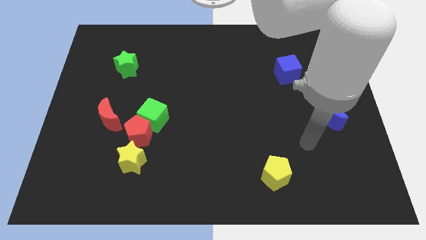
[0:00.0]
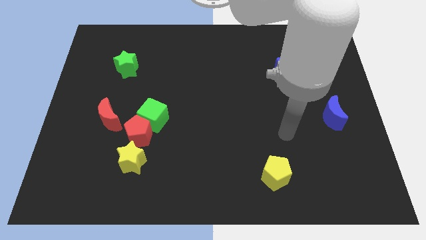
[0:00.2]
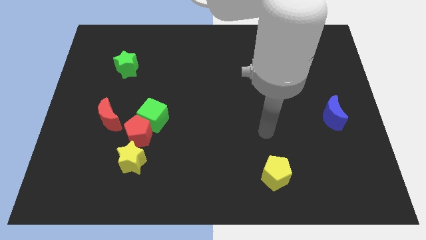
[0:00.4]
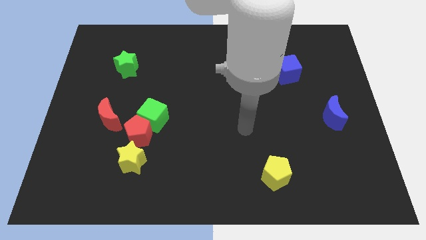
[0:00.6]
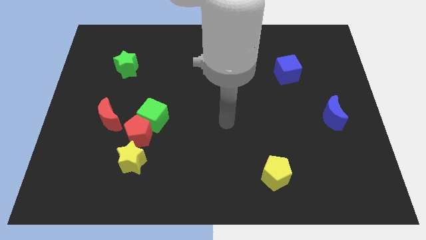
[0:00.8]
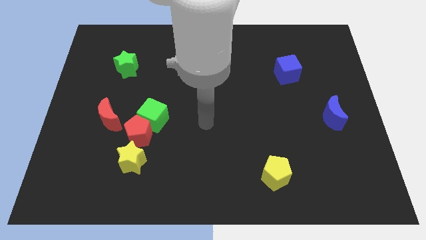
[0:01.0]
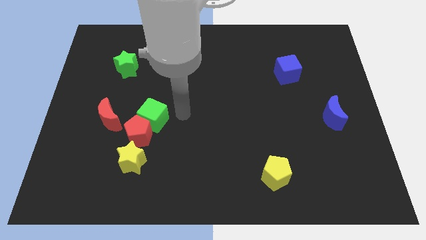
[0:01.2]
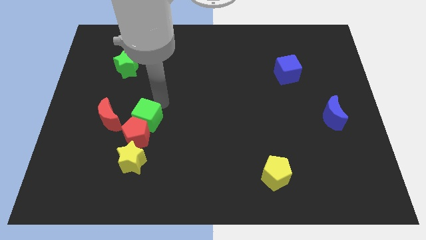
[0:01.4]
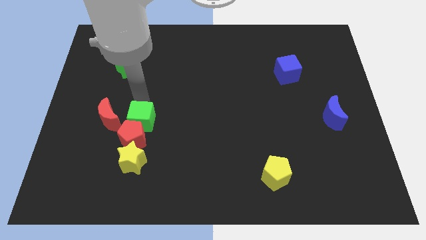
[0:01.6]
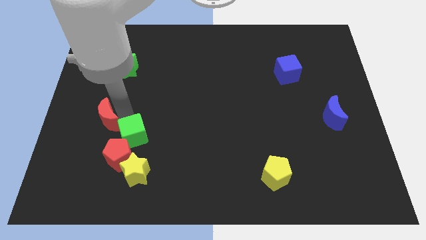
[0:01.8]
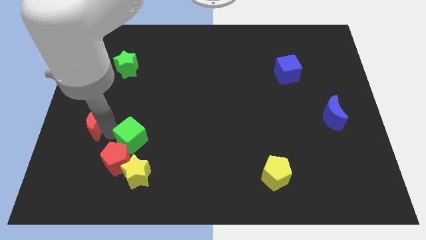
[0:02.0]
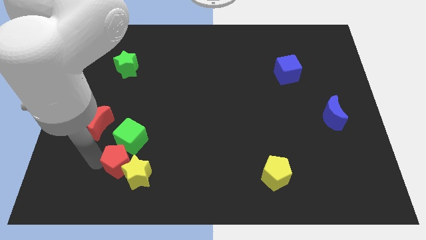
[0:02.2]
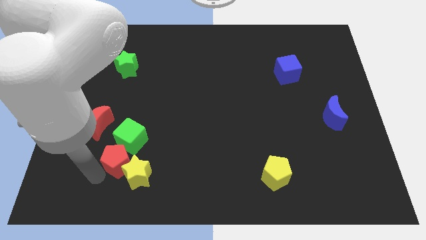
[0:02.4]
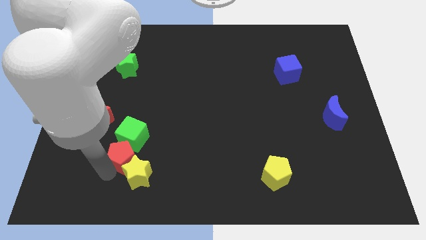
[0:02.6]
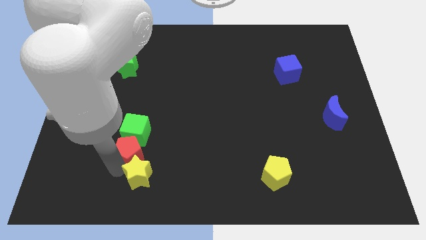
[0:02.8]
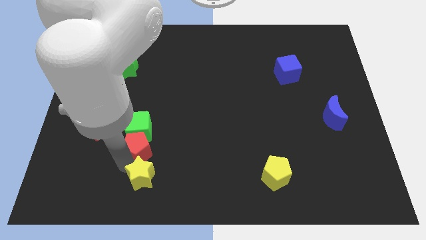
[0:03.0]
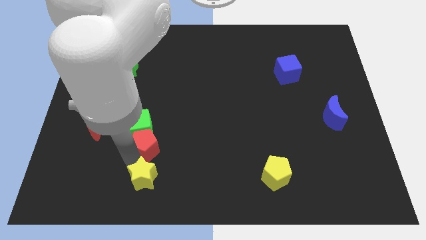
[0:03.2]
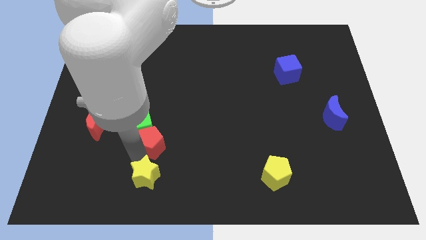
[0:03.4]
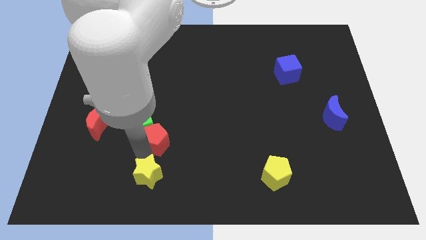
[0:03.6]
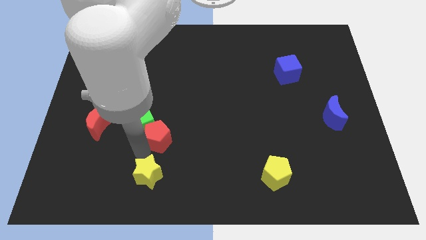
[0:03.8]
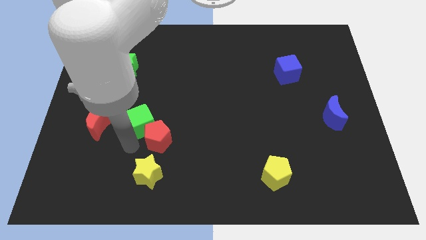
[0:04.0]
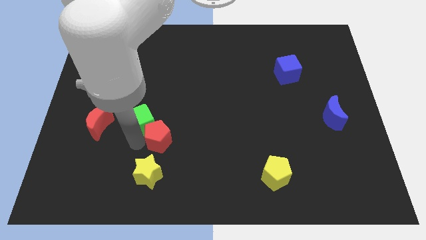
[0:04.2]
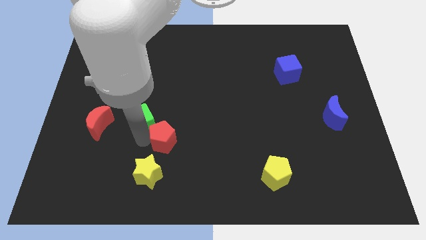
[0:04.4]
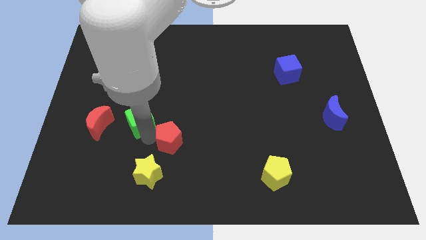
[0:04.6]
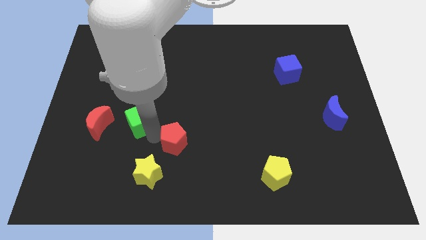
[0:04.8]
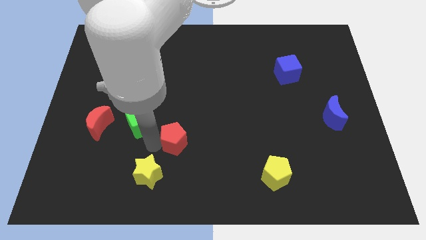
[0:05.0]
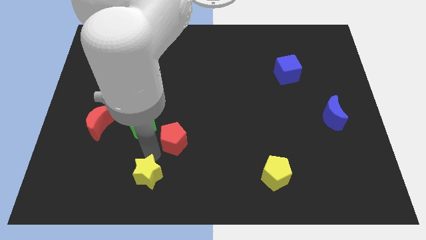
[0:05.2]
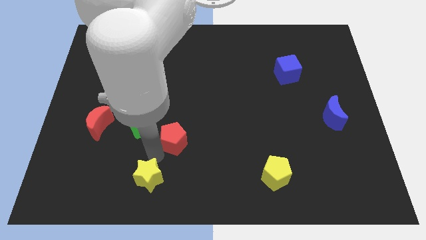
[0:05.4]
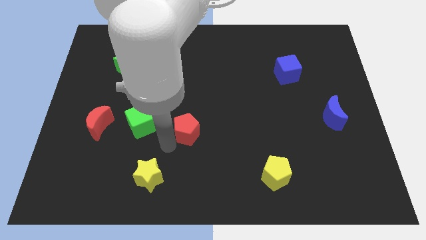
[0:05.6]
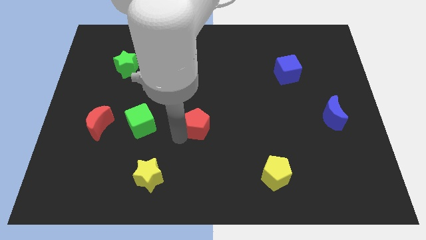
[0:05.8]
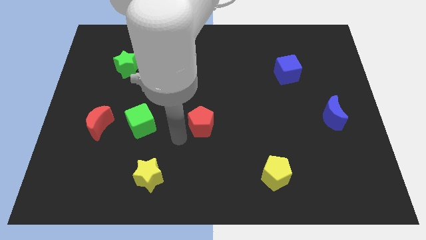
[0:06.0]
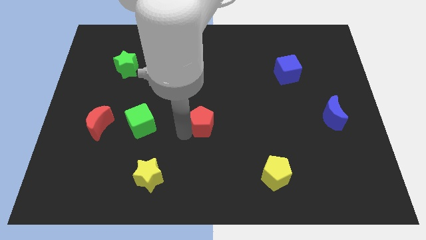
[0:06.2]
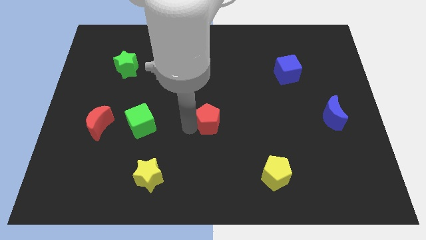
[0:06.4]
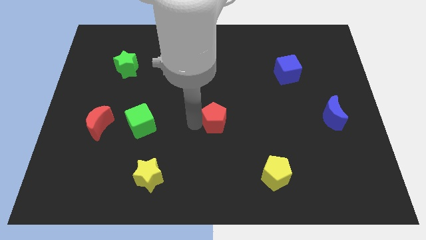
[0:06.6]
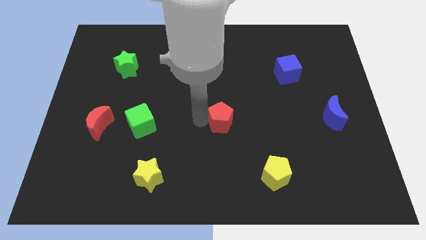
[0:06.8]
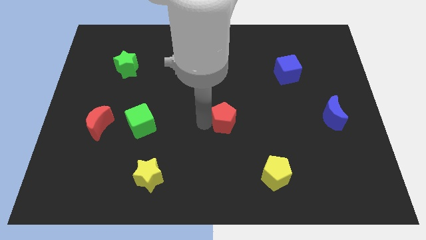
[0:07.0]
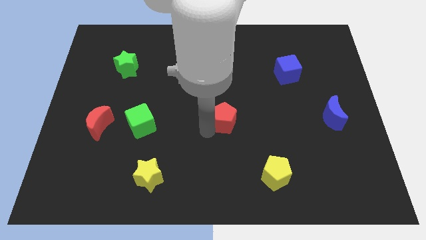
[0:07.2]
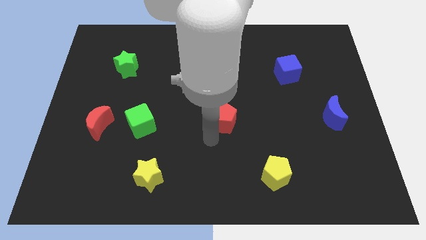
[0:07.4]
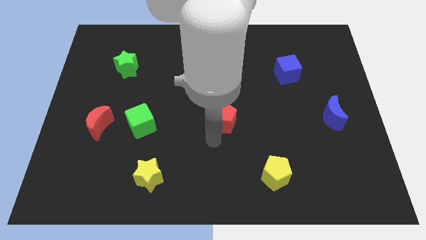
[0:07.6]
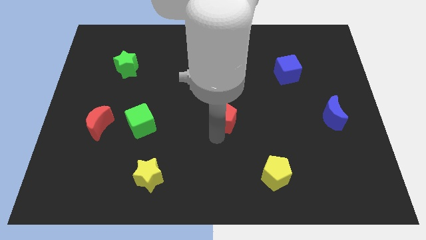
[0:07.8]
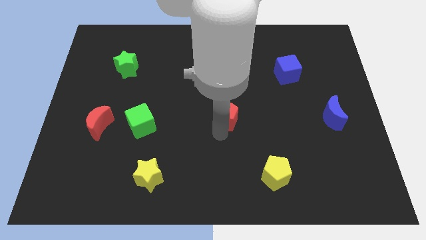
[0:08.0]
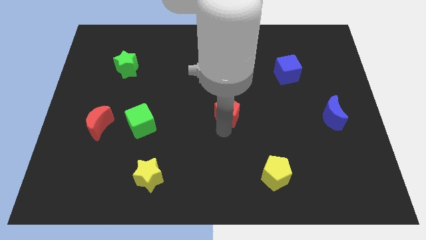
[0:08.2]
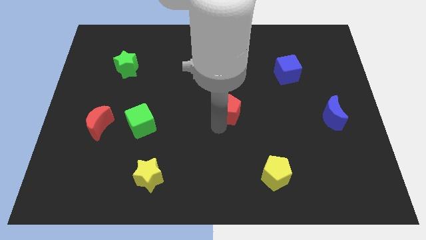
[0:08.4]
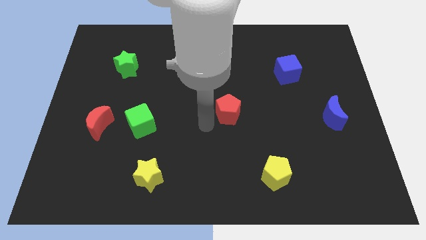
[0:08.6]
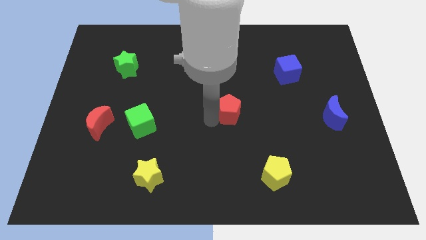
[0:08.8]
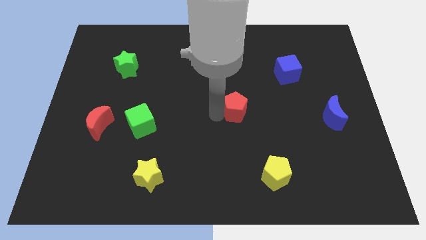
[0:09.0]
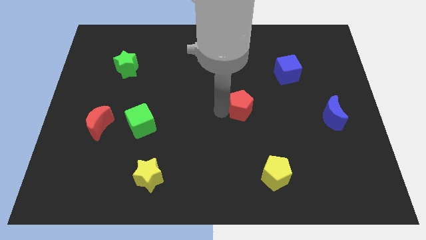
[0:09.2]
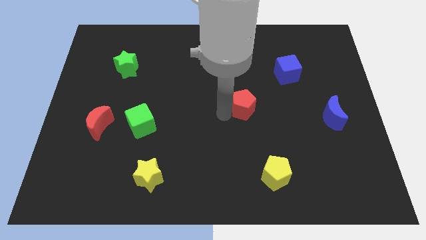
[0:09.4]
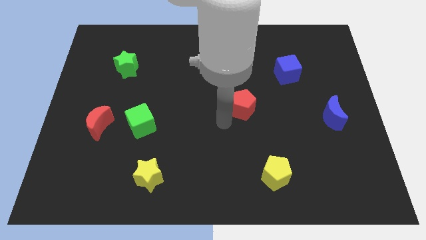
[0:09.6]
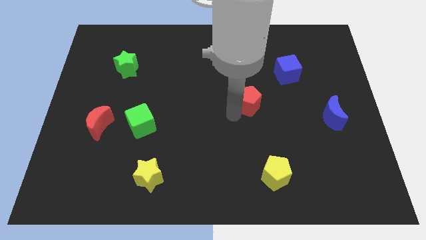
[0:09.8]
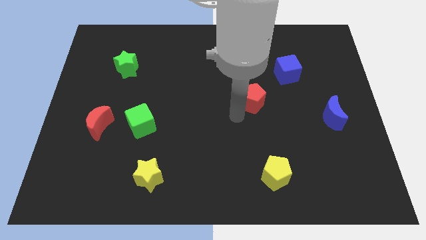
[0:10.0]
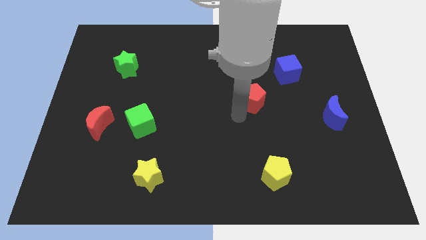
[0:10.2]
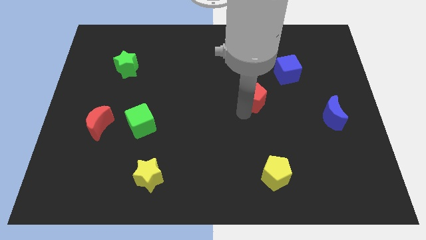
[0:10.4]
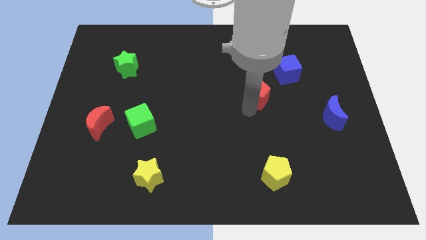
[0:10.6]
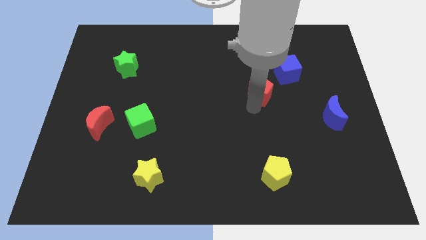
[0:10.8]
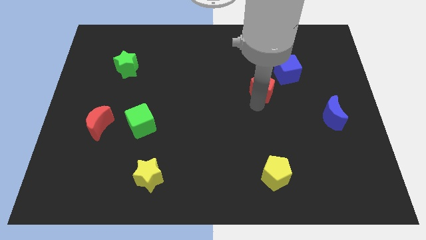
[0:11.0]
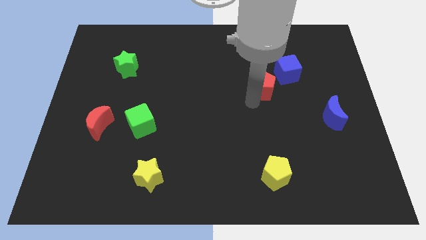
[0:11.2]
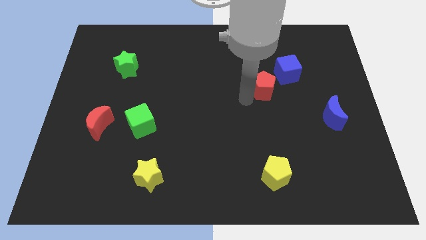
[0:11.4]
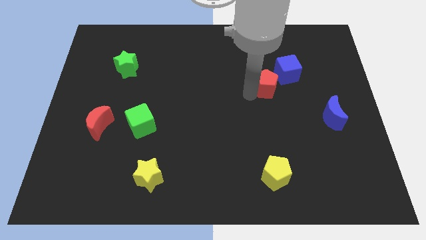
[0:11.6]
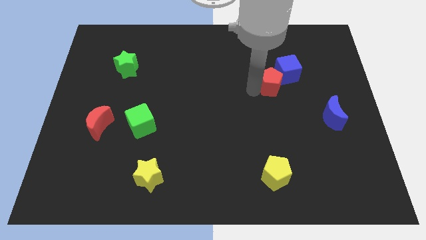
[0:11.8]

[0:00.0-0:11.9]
move the red pentagon to the blue cube

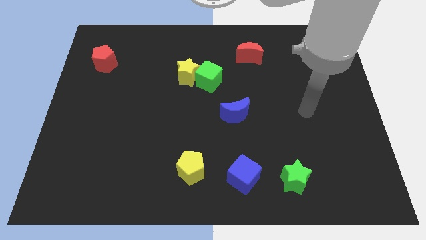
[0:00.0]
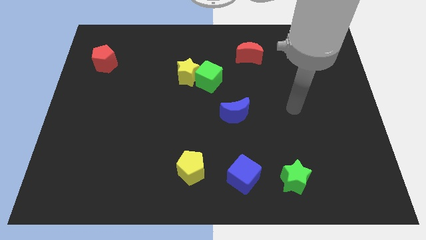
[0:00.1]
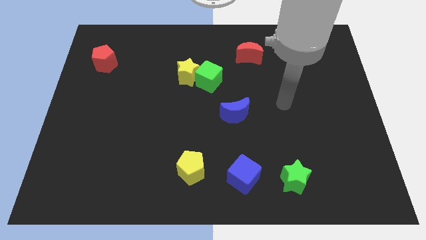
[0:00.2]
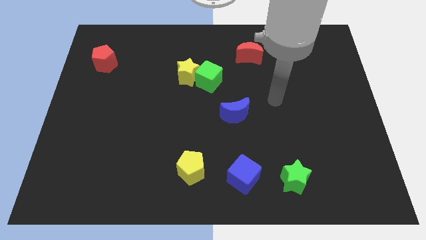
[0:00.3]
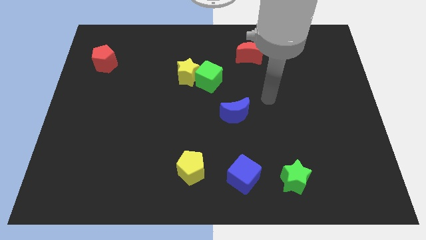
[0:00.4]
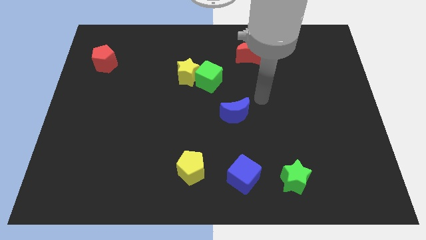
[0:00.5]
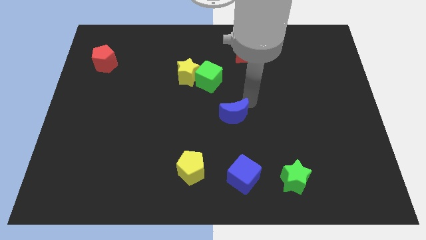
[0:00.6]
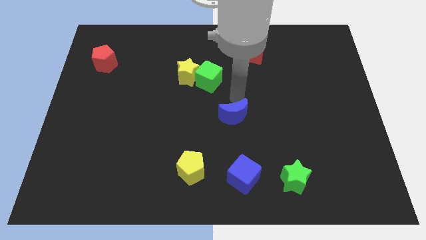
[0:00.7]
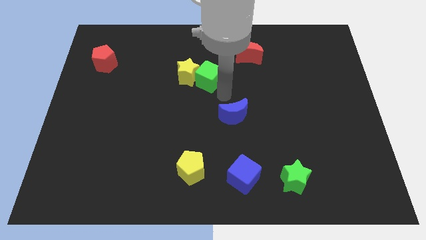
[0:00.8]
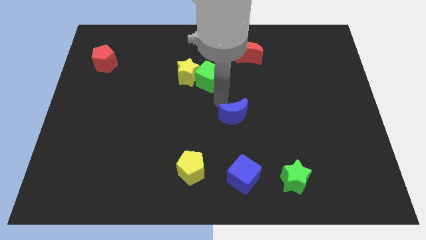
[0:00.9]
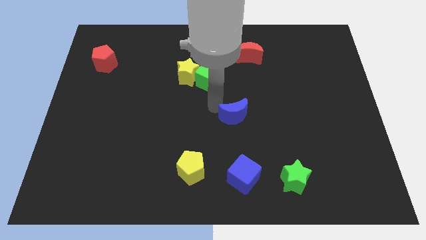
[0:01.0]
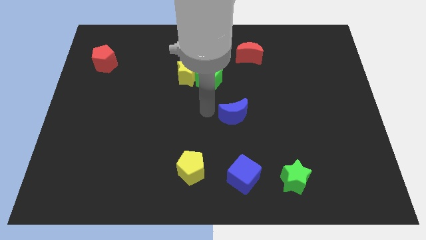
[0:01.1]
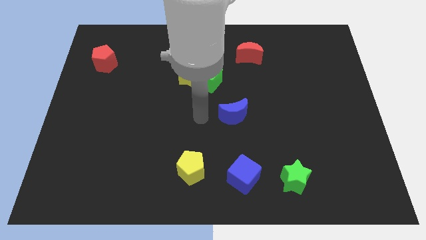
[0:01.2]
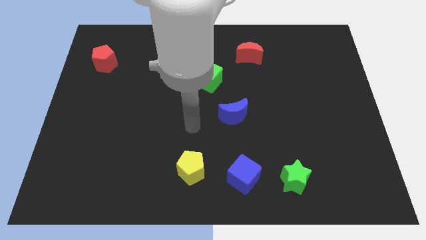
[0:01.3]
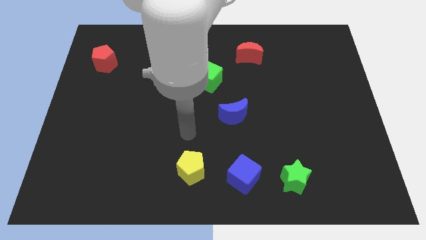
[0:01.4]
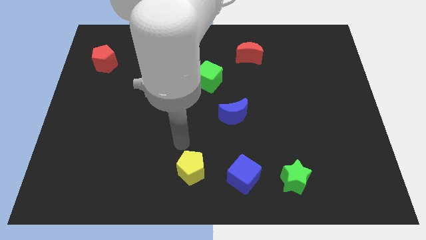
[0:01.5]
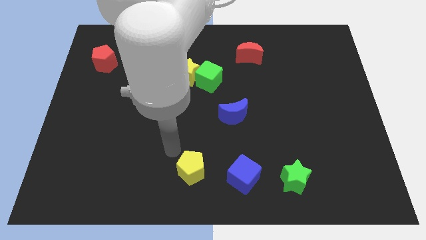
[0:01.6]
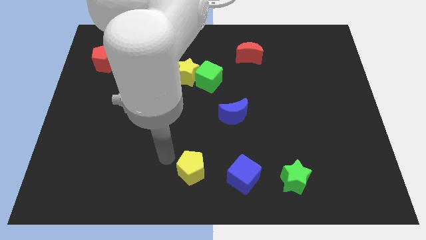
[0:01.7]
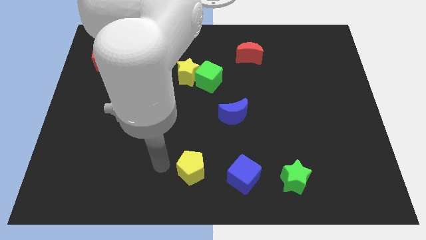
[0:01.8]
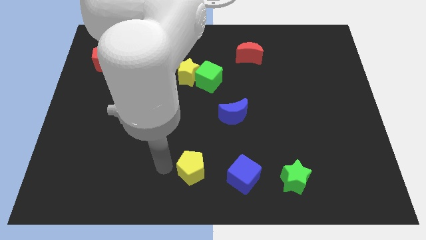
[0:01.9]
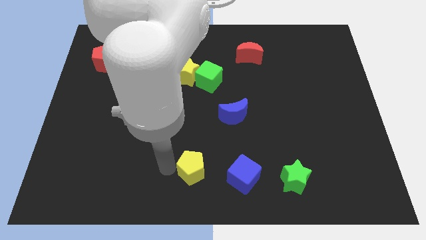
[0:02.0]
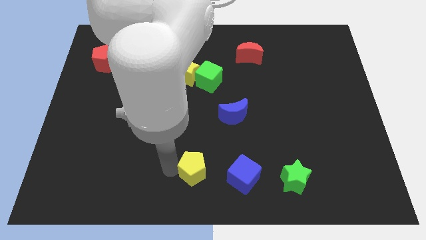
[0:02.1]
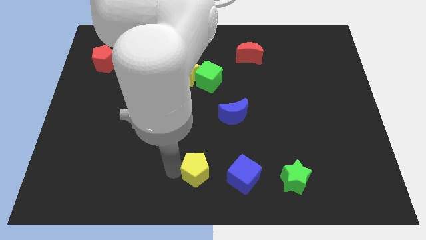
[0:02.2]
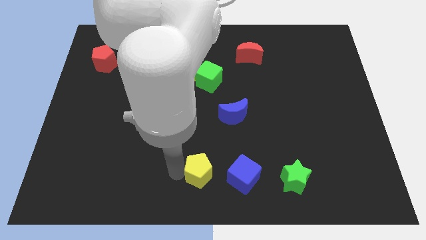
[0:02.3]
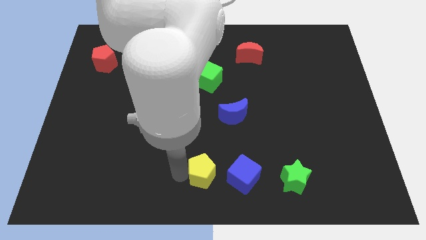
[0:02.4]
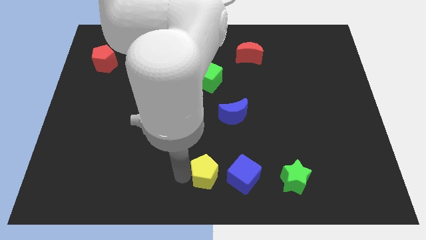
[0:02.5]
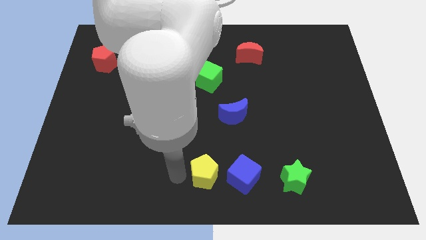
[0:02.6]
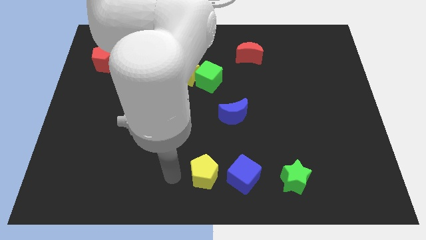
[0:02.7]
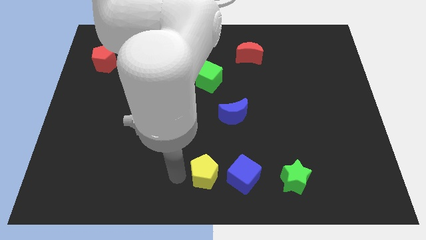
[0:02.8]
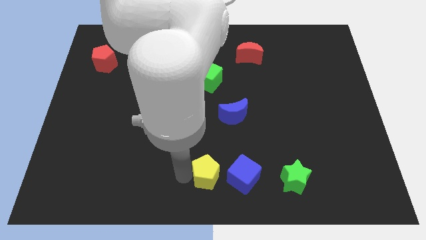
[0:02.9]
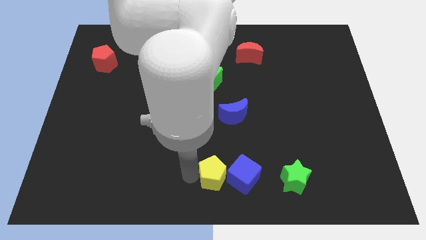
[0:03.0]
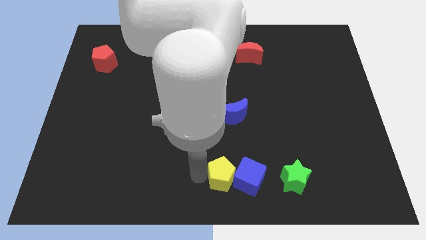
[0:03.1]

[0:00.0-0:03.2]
put the yellow pentagon close to the blue cube
